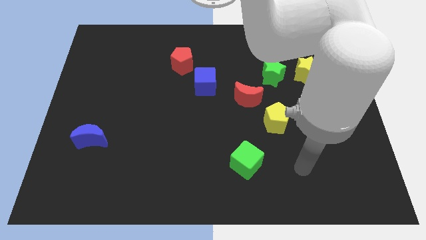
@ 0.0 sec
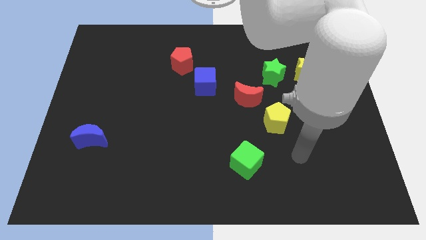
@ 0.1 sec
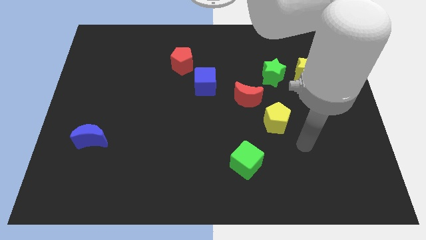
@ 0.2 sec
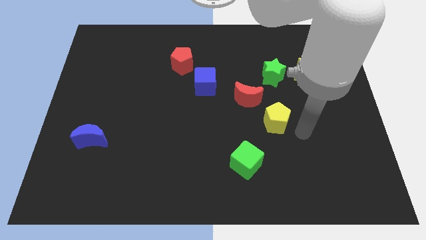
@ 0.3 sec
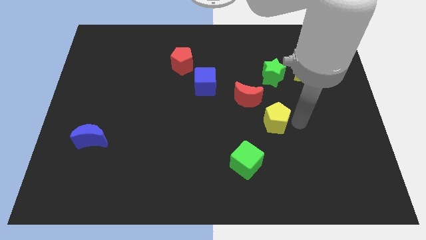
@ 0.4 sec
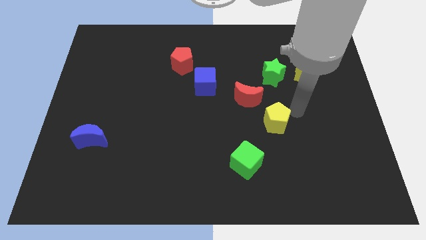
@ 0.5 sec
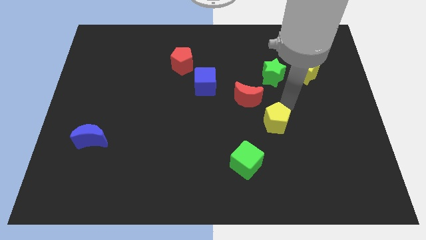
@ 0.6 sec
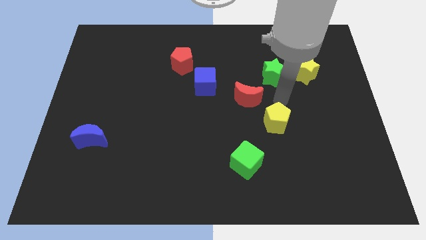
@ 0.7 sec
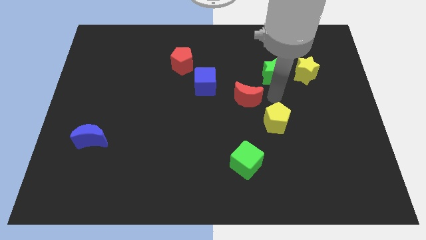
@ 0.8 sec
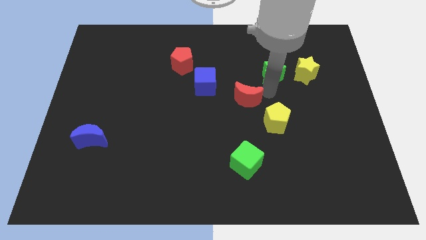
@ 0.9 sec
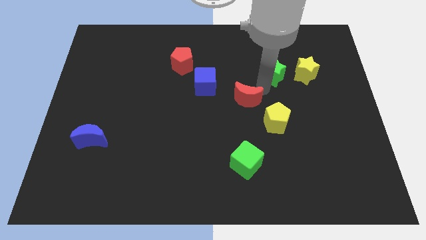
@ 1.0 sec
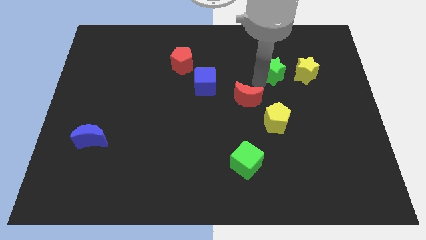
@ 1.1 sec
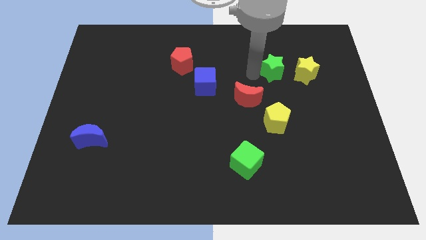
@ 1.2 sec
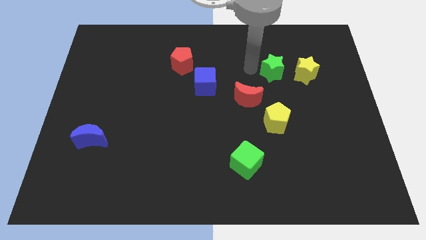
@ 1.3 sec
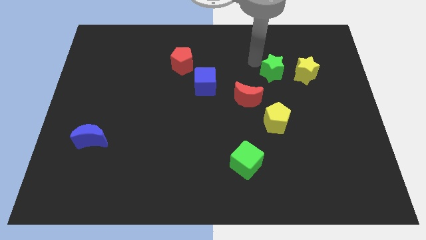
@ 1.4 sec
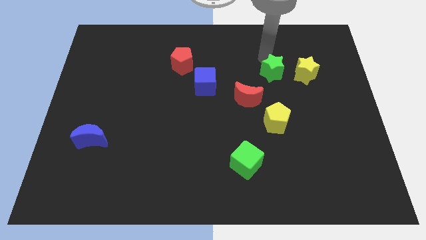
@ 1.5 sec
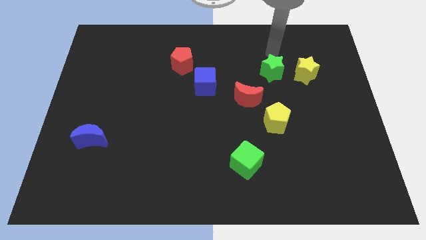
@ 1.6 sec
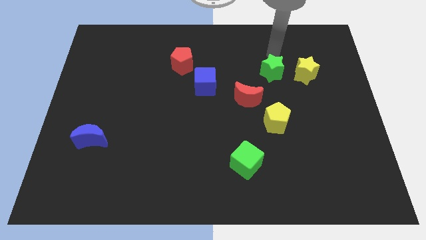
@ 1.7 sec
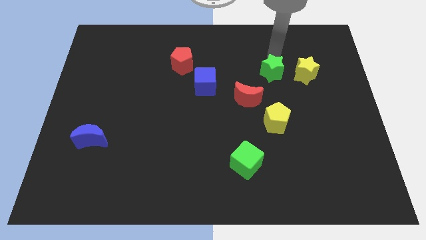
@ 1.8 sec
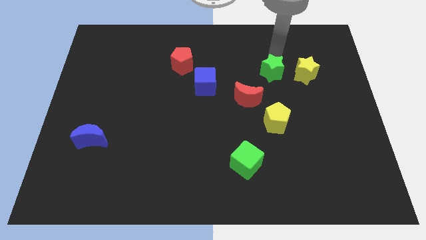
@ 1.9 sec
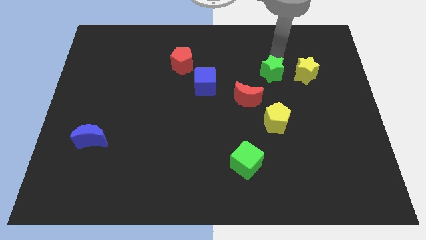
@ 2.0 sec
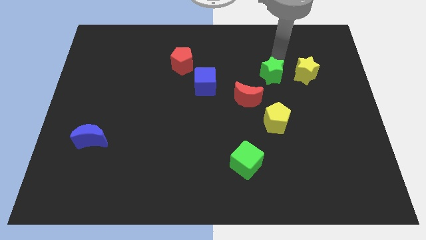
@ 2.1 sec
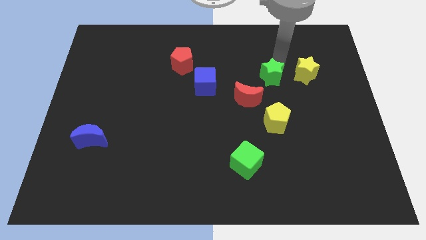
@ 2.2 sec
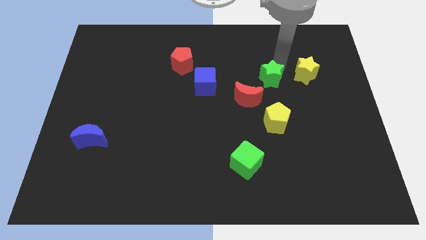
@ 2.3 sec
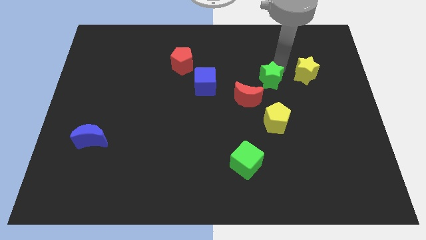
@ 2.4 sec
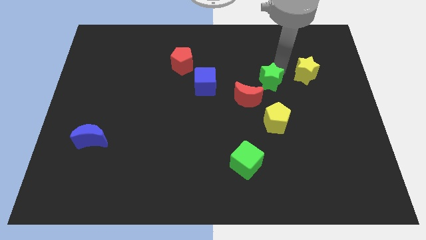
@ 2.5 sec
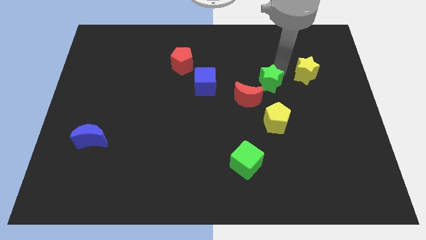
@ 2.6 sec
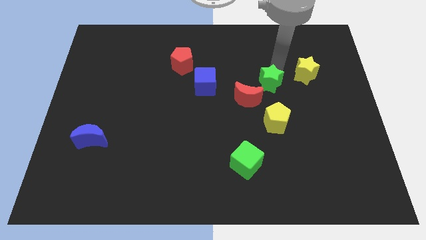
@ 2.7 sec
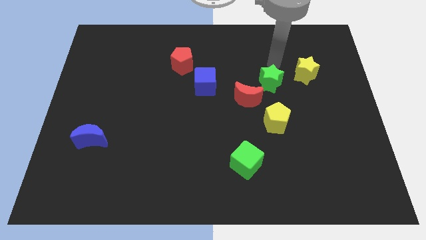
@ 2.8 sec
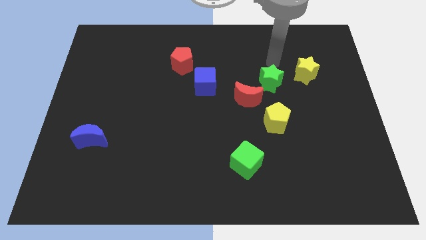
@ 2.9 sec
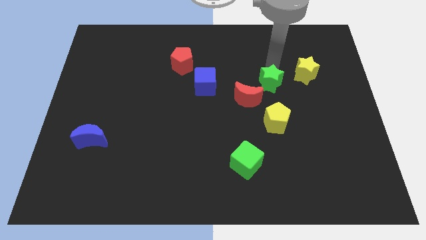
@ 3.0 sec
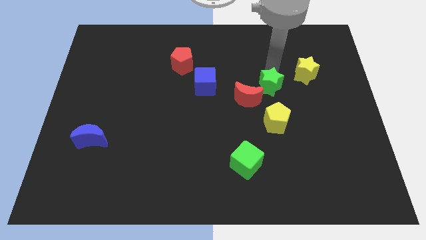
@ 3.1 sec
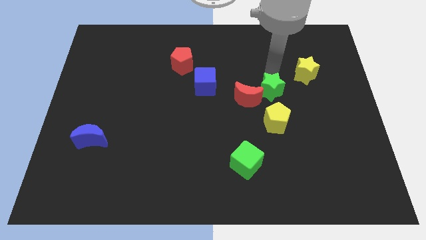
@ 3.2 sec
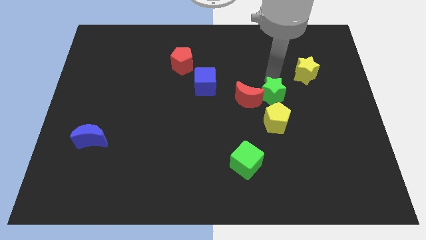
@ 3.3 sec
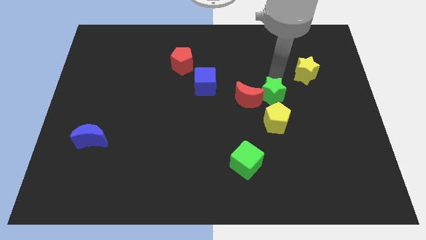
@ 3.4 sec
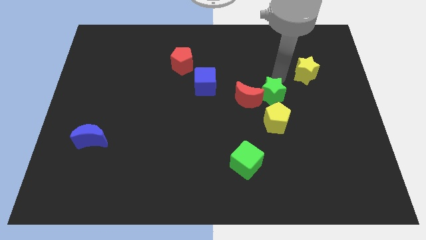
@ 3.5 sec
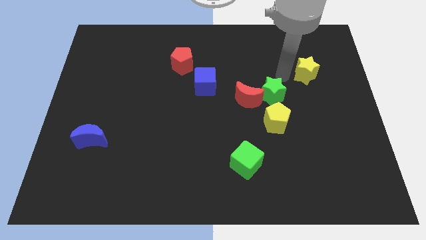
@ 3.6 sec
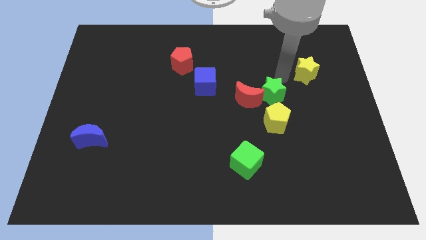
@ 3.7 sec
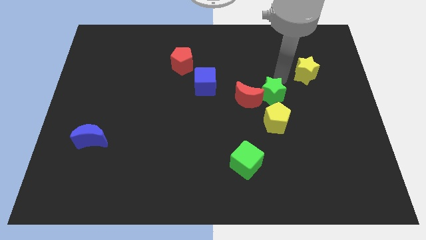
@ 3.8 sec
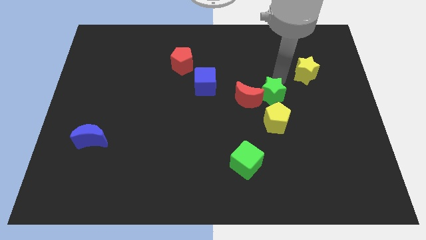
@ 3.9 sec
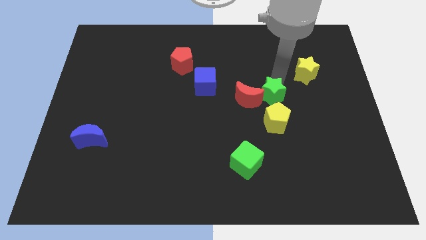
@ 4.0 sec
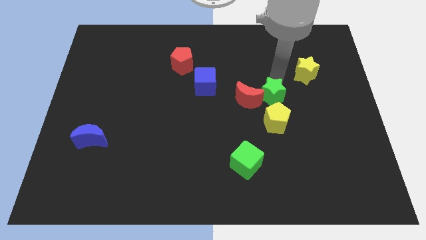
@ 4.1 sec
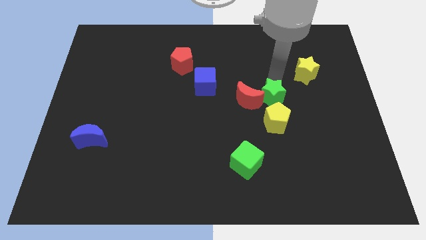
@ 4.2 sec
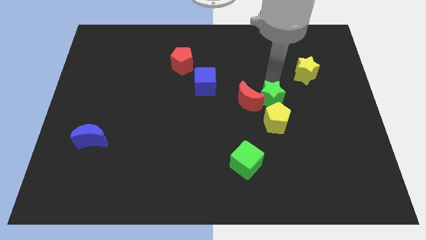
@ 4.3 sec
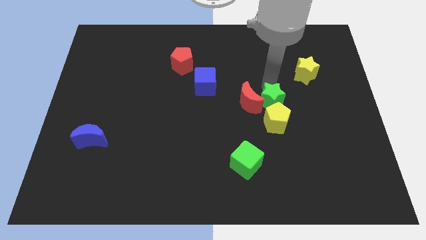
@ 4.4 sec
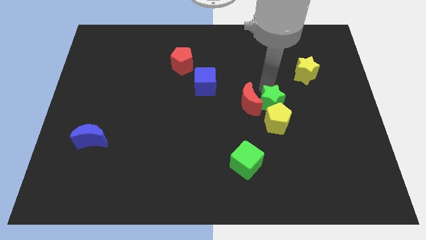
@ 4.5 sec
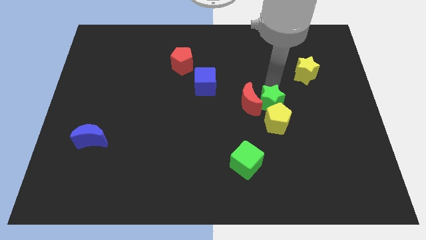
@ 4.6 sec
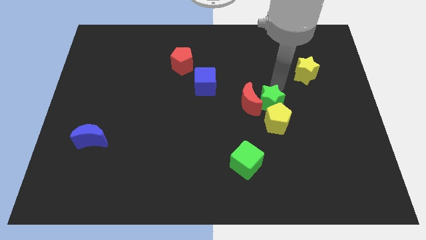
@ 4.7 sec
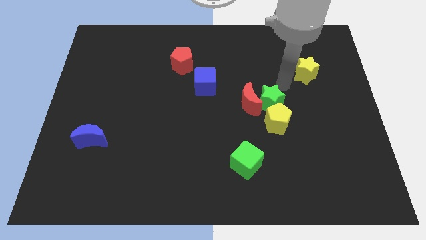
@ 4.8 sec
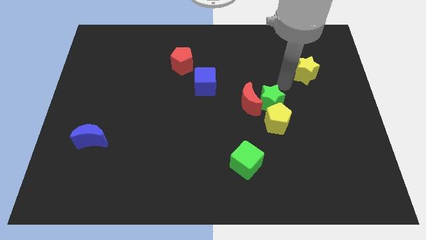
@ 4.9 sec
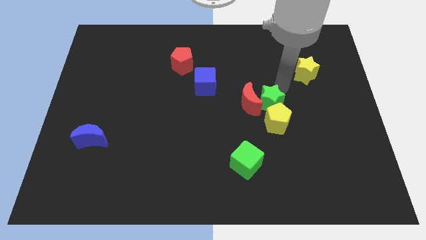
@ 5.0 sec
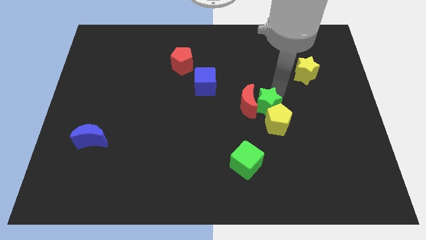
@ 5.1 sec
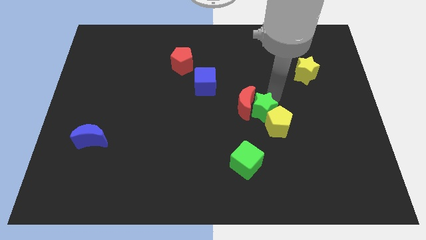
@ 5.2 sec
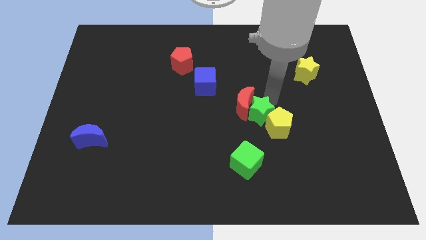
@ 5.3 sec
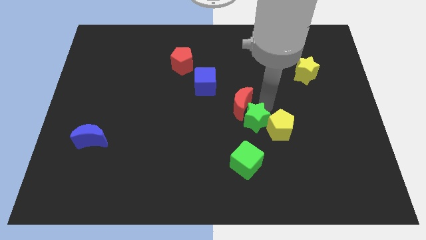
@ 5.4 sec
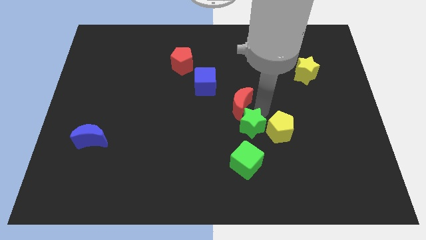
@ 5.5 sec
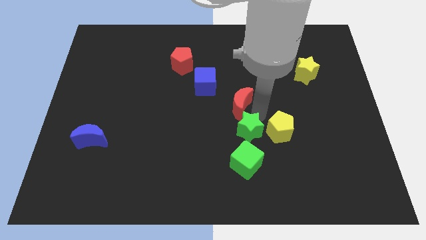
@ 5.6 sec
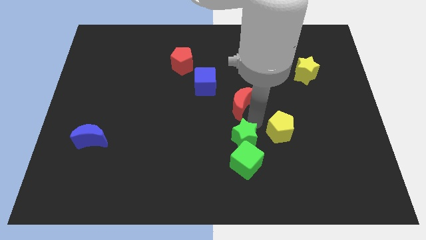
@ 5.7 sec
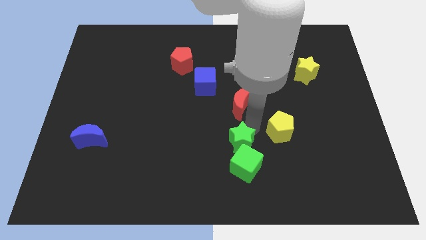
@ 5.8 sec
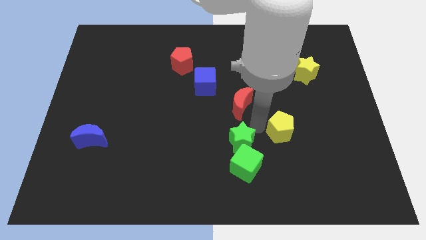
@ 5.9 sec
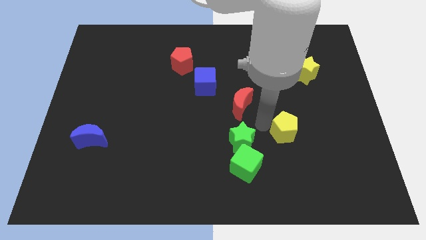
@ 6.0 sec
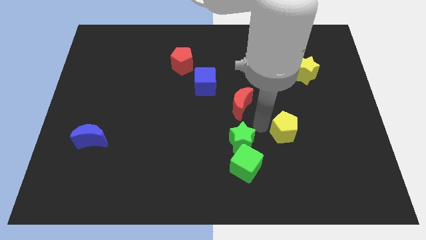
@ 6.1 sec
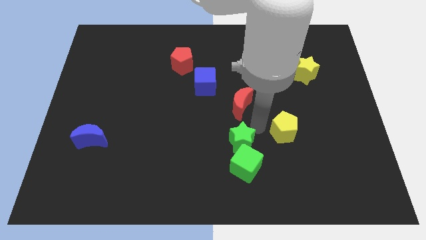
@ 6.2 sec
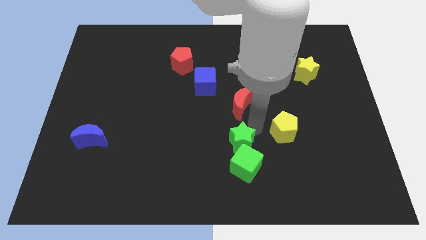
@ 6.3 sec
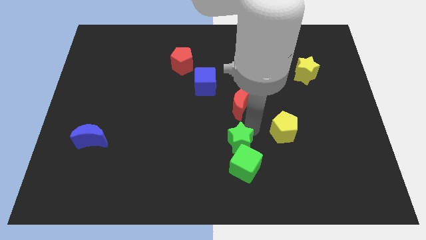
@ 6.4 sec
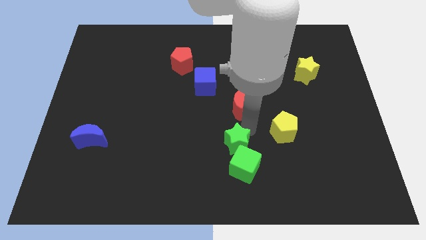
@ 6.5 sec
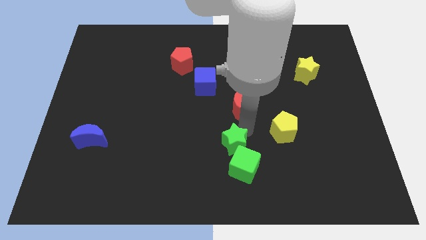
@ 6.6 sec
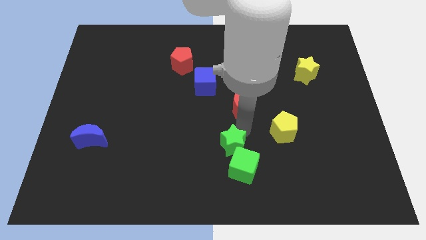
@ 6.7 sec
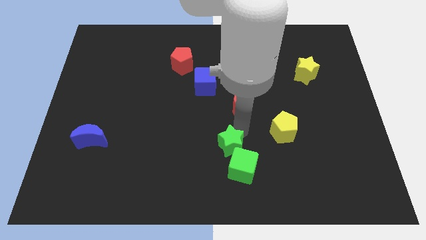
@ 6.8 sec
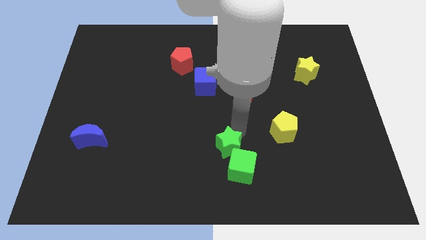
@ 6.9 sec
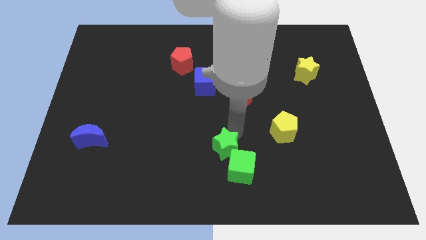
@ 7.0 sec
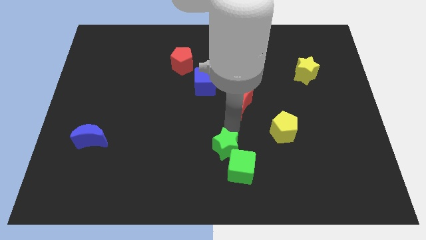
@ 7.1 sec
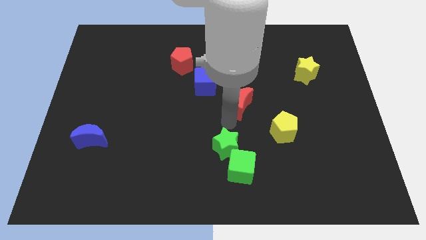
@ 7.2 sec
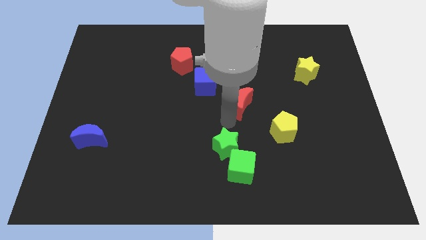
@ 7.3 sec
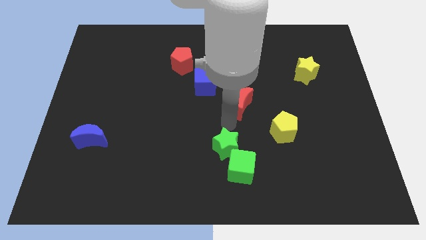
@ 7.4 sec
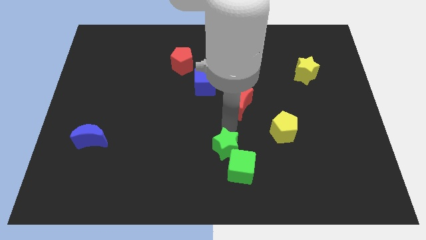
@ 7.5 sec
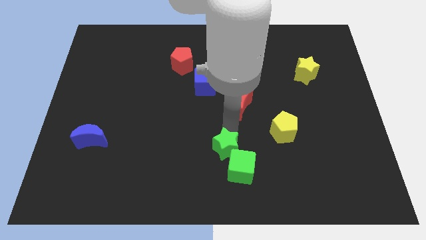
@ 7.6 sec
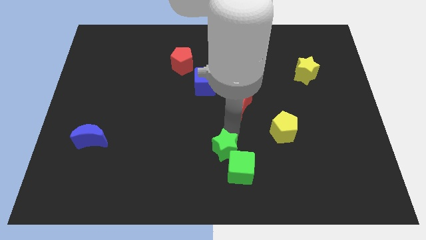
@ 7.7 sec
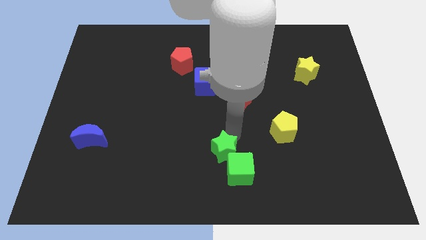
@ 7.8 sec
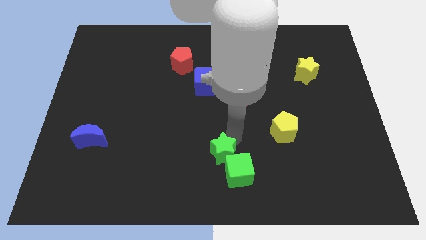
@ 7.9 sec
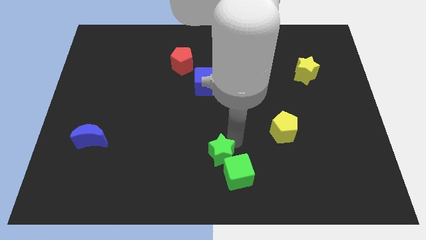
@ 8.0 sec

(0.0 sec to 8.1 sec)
put the green star to the bottom side
